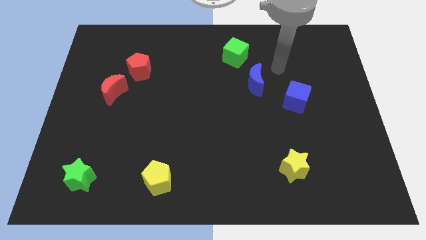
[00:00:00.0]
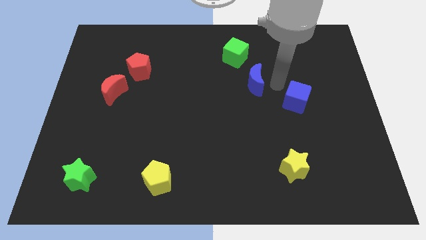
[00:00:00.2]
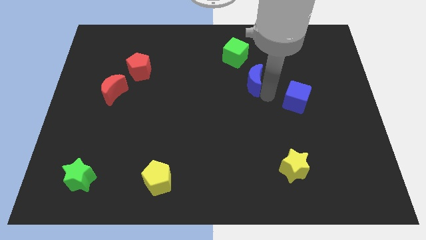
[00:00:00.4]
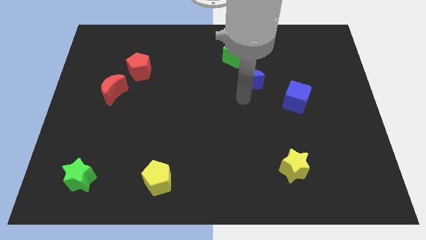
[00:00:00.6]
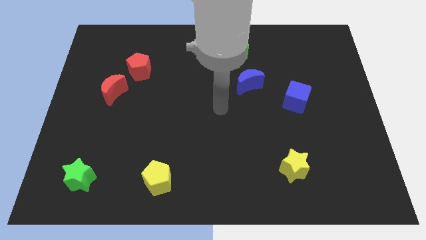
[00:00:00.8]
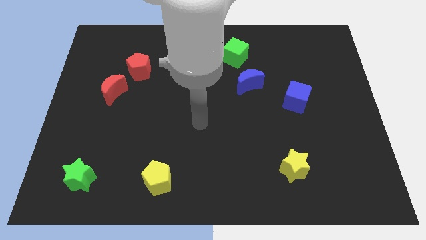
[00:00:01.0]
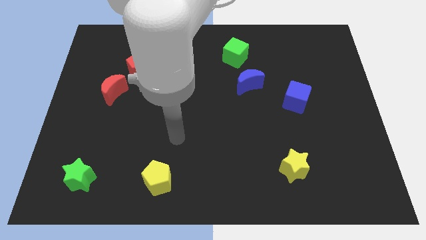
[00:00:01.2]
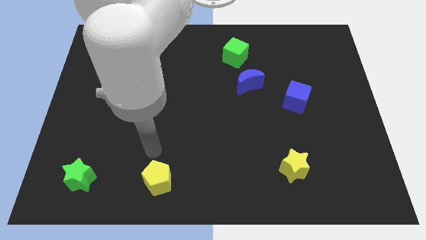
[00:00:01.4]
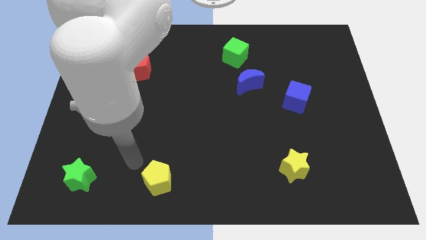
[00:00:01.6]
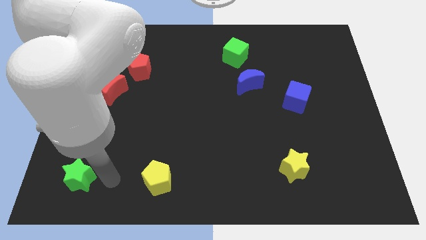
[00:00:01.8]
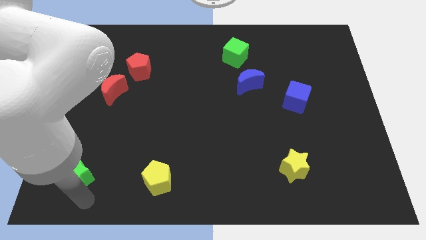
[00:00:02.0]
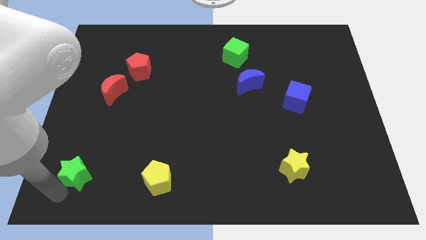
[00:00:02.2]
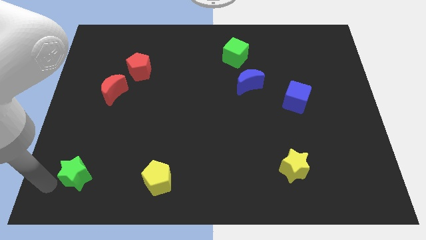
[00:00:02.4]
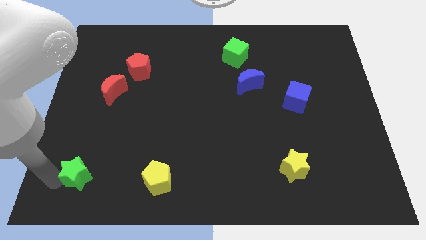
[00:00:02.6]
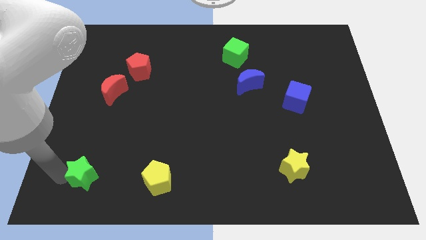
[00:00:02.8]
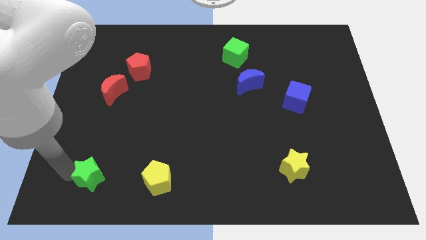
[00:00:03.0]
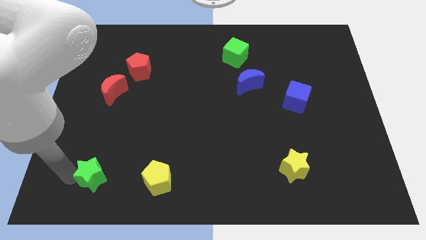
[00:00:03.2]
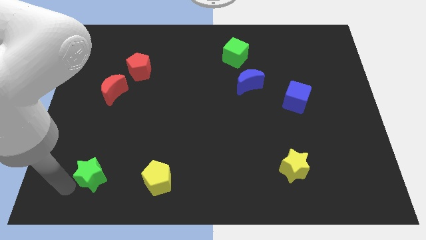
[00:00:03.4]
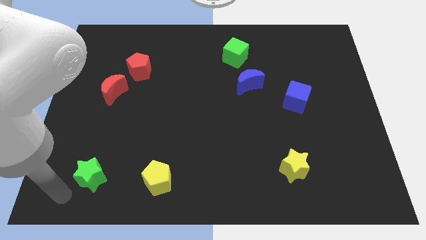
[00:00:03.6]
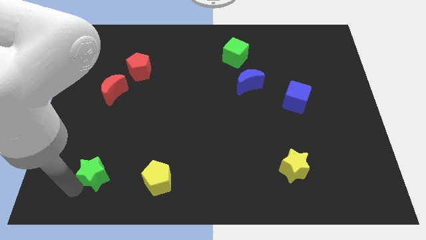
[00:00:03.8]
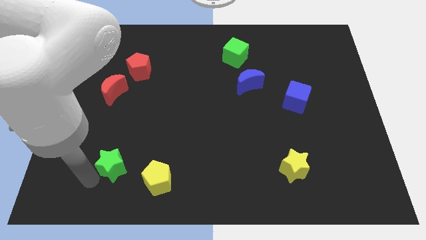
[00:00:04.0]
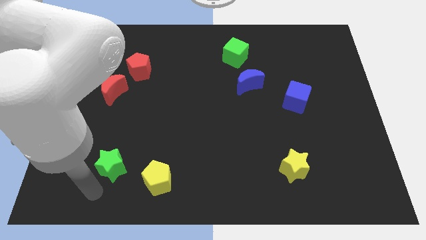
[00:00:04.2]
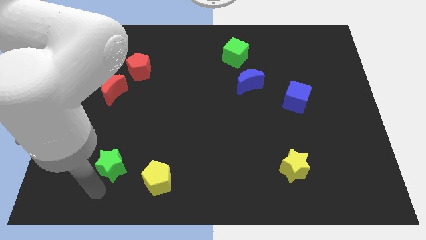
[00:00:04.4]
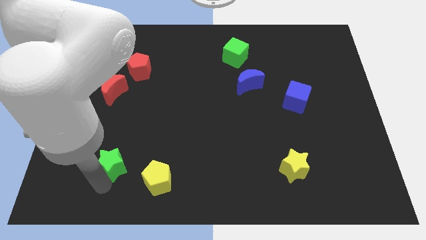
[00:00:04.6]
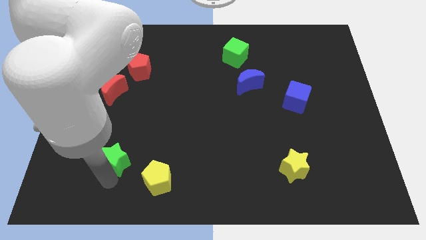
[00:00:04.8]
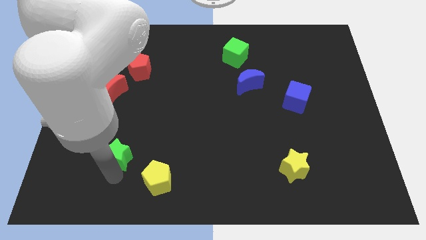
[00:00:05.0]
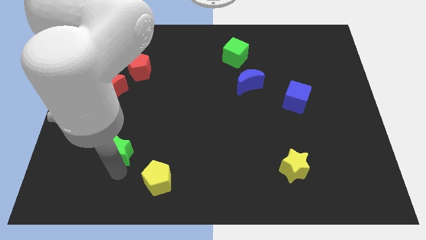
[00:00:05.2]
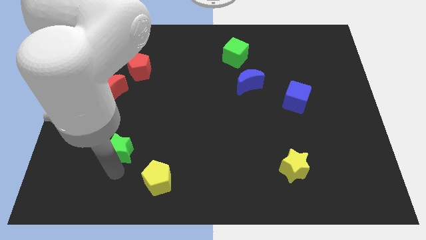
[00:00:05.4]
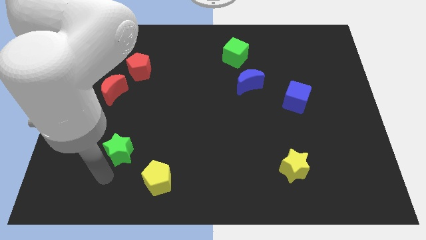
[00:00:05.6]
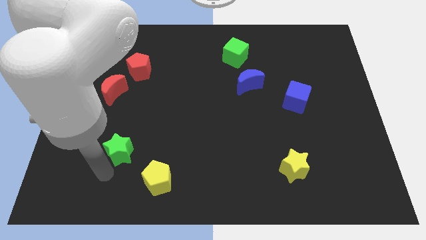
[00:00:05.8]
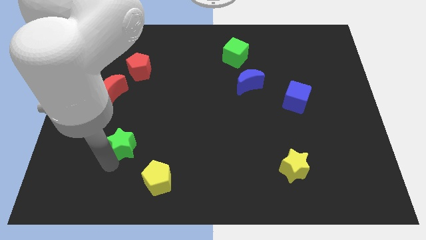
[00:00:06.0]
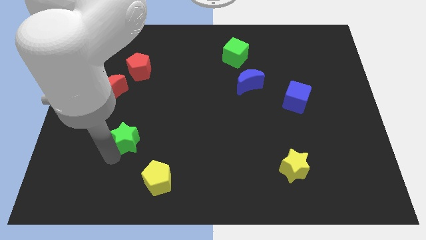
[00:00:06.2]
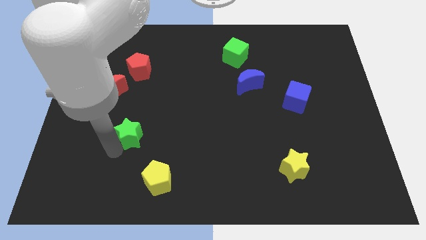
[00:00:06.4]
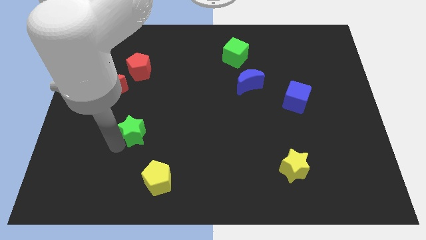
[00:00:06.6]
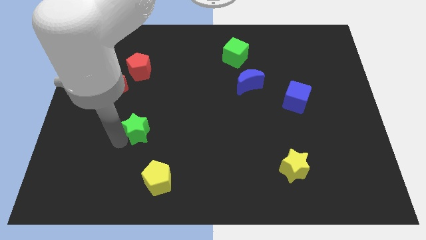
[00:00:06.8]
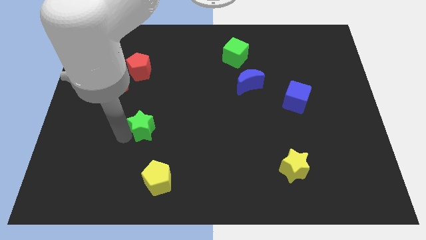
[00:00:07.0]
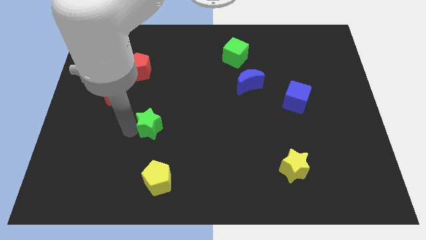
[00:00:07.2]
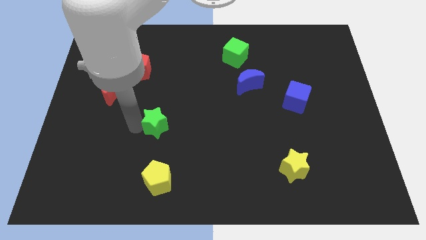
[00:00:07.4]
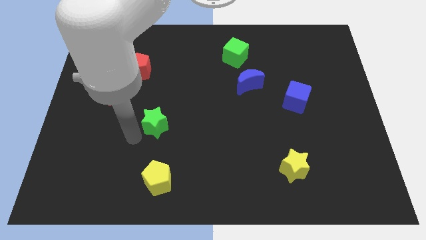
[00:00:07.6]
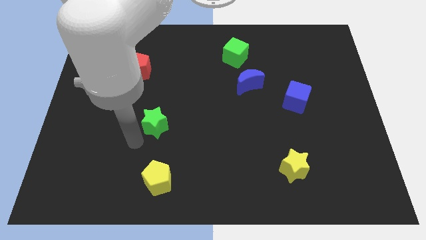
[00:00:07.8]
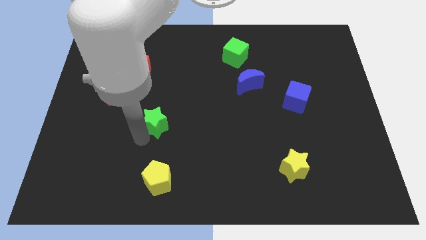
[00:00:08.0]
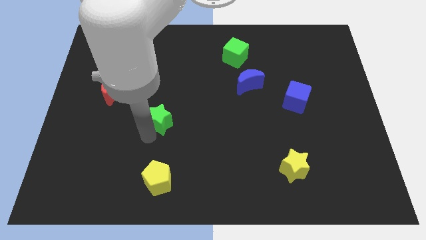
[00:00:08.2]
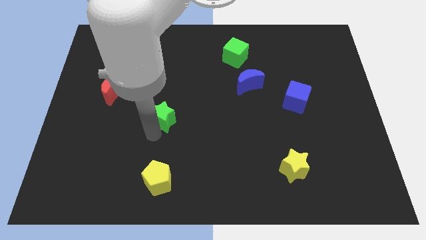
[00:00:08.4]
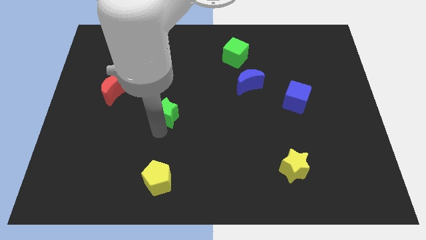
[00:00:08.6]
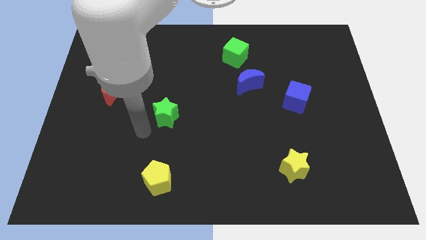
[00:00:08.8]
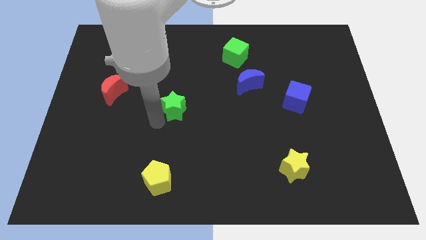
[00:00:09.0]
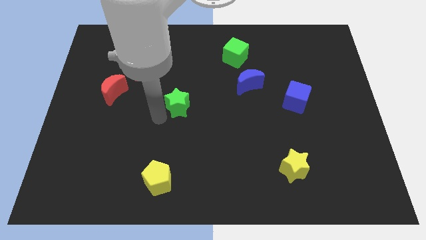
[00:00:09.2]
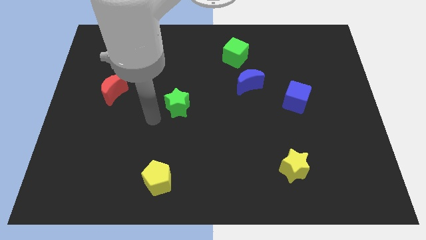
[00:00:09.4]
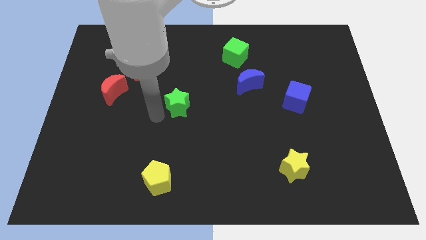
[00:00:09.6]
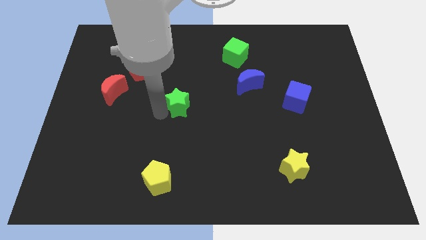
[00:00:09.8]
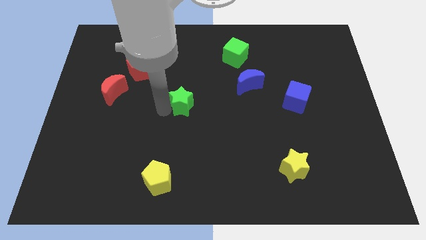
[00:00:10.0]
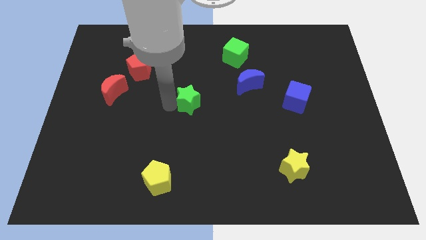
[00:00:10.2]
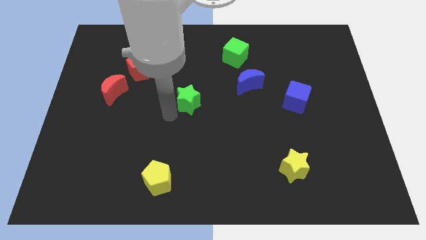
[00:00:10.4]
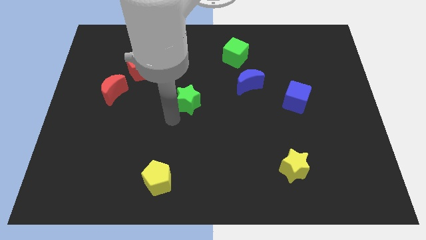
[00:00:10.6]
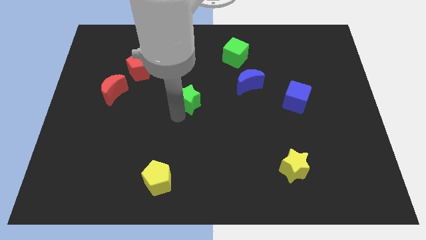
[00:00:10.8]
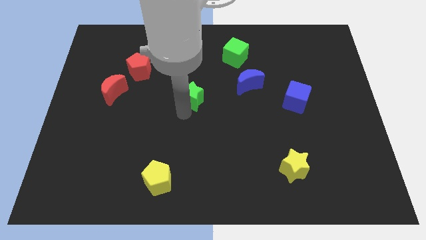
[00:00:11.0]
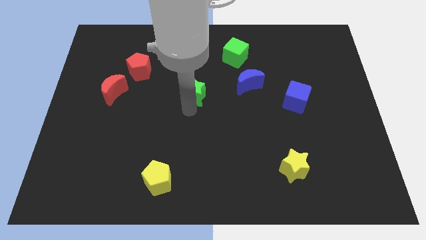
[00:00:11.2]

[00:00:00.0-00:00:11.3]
push the green star left of the blue moon

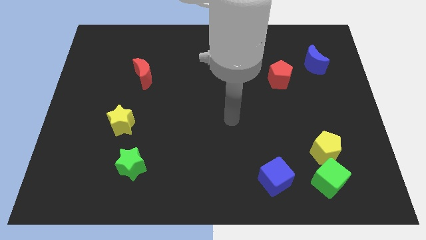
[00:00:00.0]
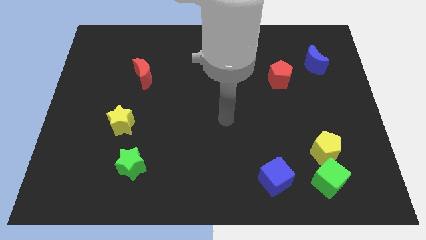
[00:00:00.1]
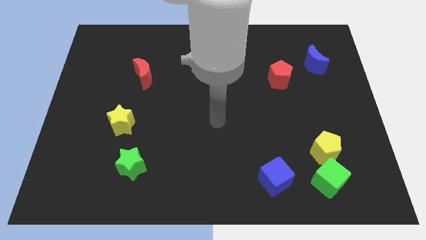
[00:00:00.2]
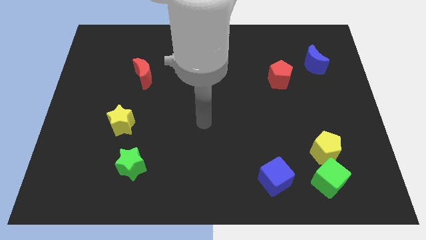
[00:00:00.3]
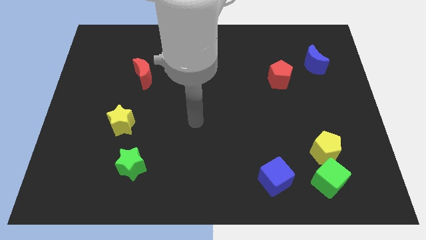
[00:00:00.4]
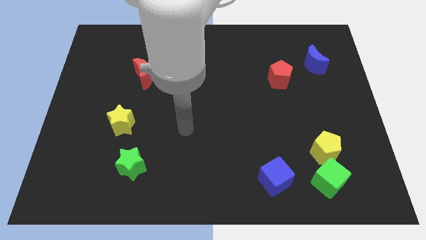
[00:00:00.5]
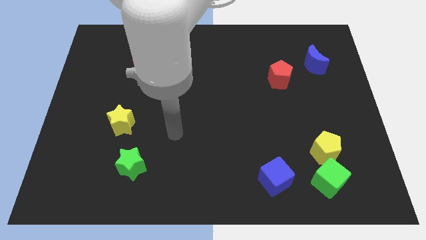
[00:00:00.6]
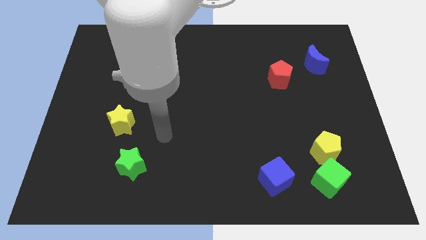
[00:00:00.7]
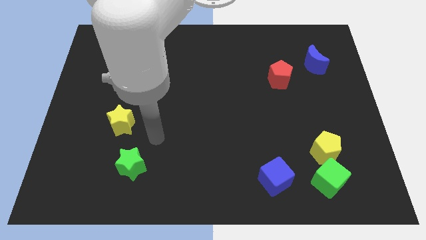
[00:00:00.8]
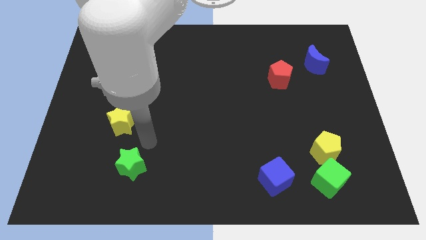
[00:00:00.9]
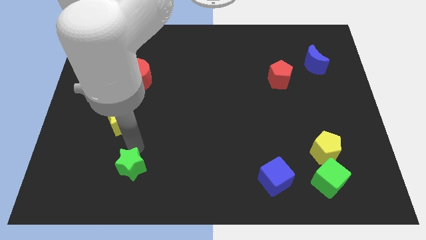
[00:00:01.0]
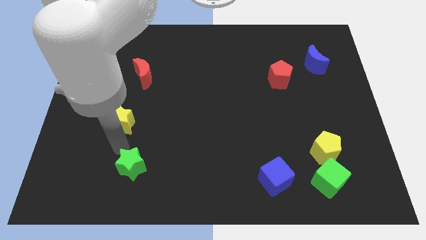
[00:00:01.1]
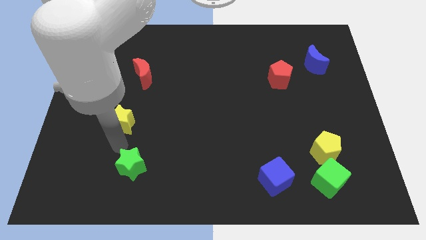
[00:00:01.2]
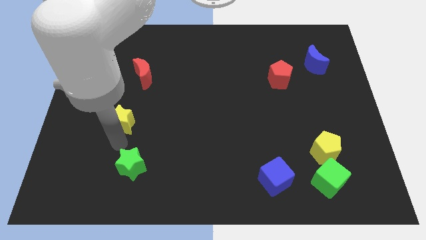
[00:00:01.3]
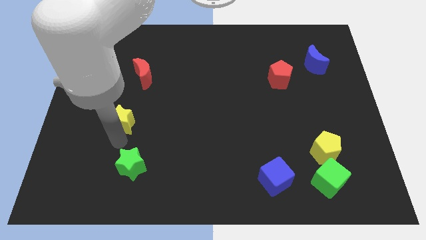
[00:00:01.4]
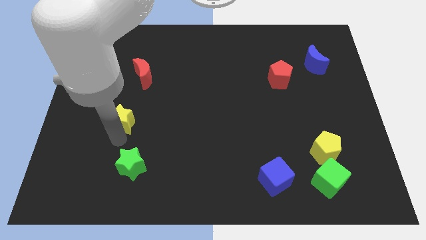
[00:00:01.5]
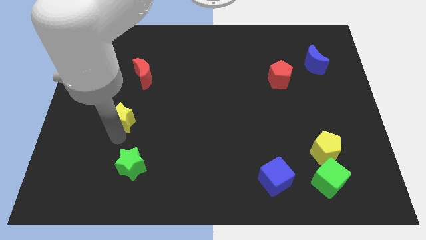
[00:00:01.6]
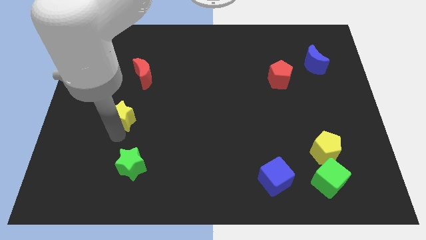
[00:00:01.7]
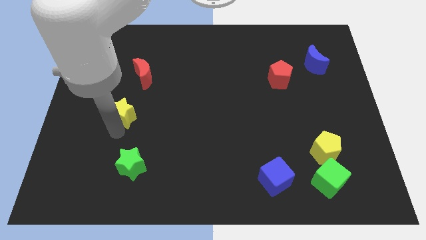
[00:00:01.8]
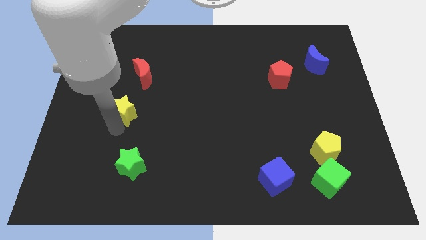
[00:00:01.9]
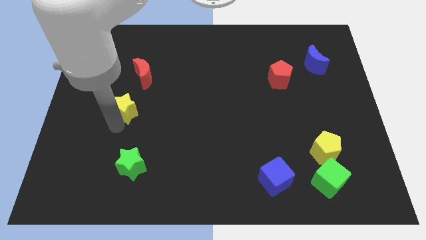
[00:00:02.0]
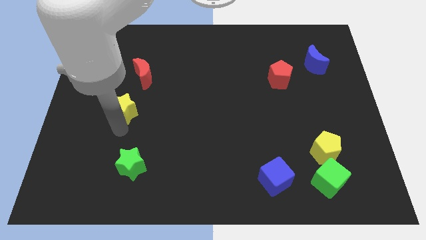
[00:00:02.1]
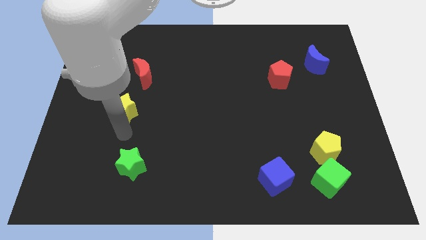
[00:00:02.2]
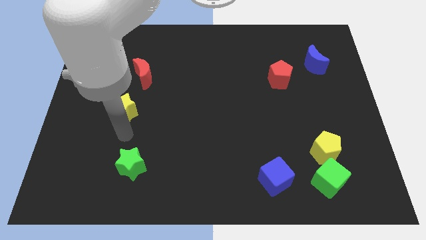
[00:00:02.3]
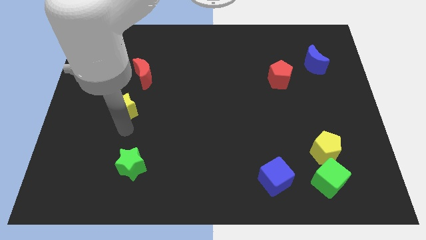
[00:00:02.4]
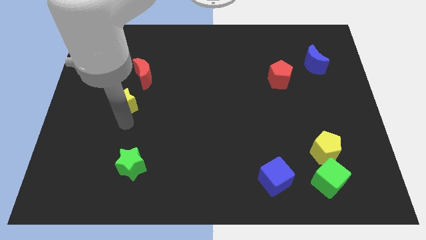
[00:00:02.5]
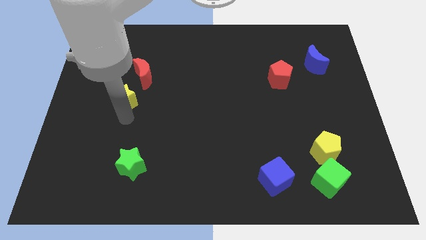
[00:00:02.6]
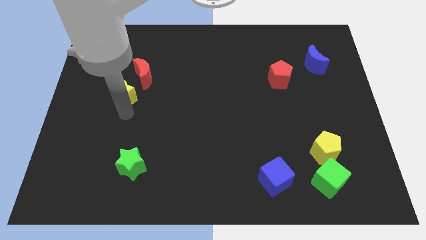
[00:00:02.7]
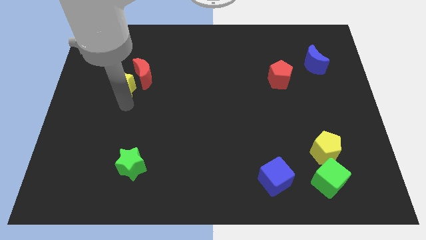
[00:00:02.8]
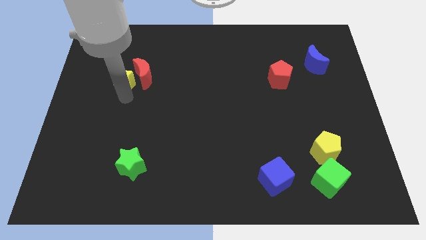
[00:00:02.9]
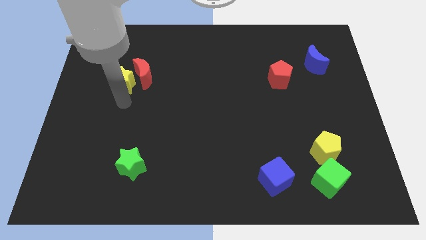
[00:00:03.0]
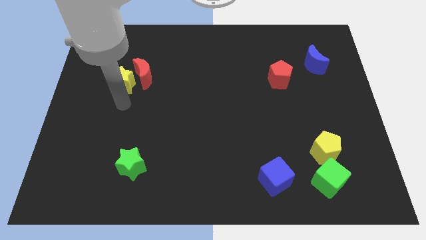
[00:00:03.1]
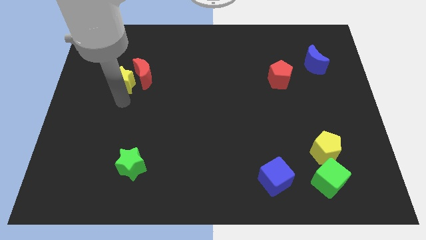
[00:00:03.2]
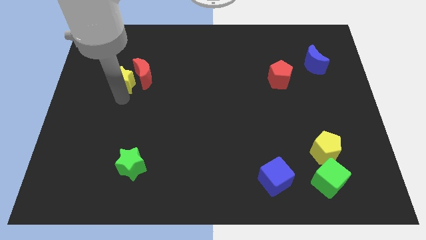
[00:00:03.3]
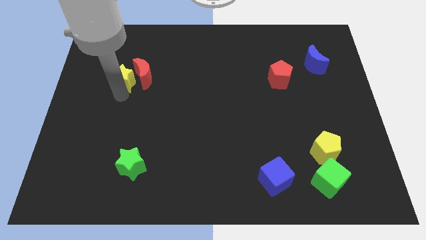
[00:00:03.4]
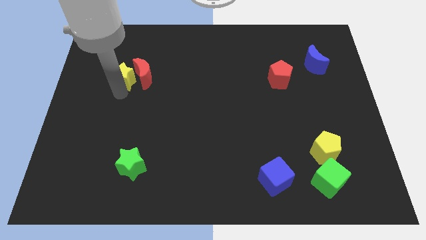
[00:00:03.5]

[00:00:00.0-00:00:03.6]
push the yellow star to the top left of the red moon
